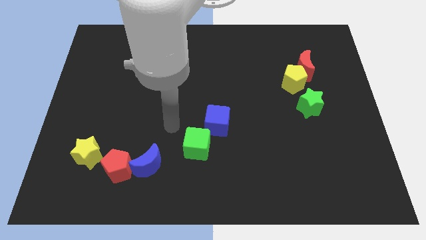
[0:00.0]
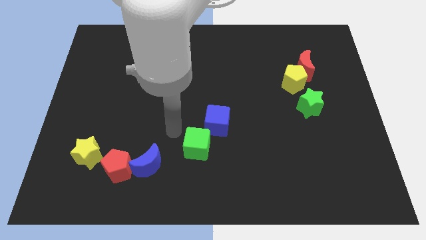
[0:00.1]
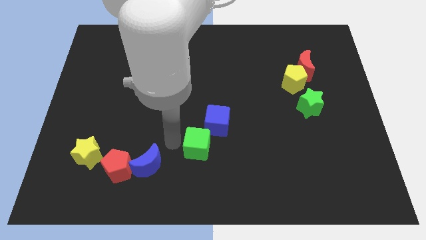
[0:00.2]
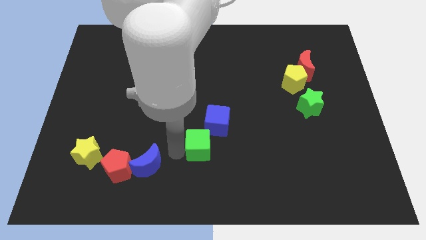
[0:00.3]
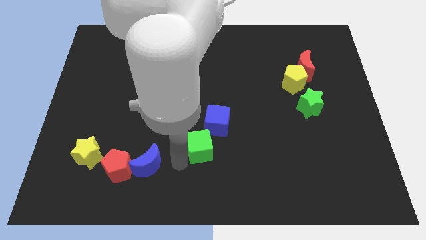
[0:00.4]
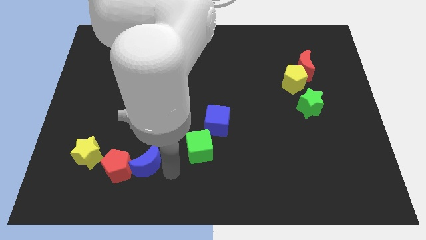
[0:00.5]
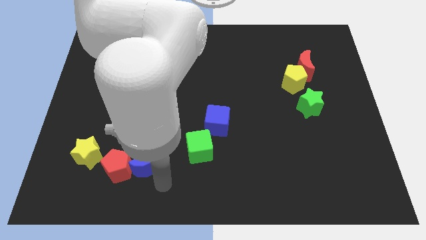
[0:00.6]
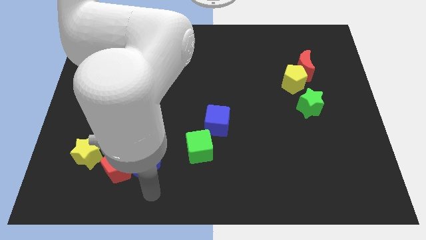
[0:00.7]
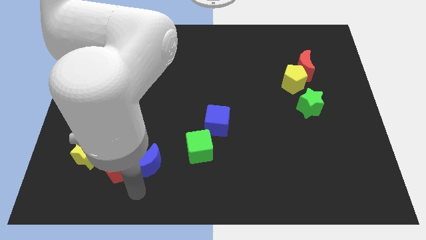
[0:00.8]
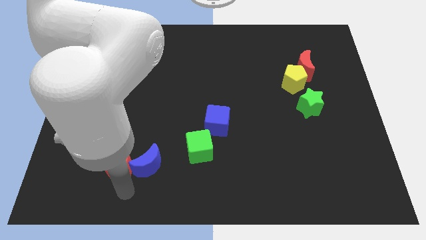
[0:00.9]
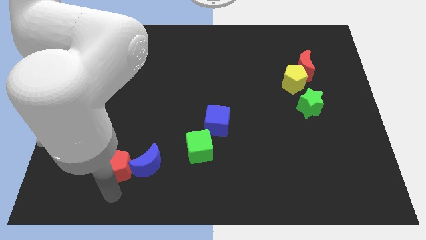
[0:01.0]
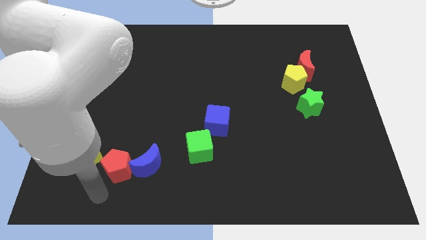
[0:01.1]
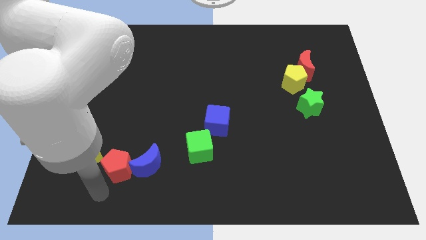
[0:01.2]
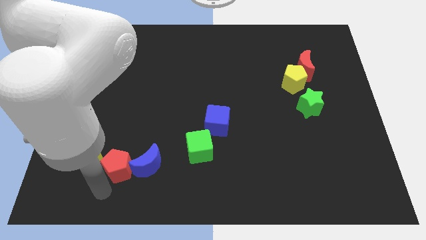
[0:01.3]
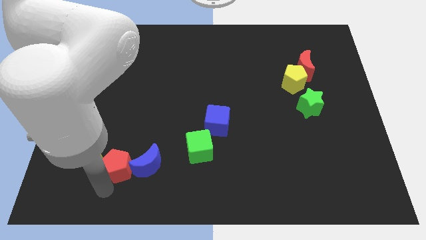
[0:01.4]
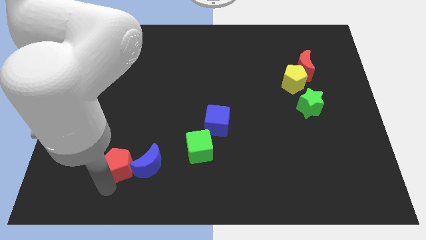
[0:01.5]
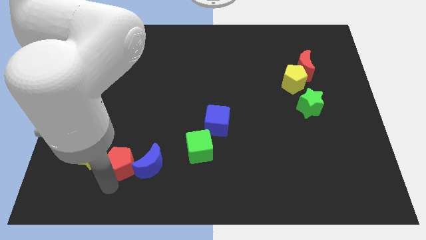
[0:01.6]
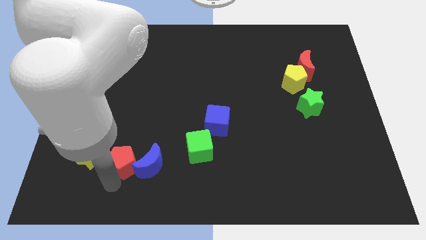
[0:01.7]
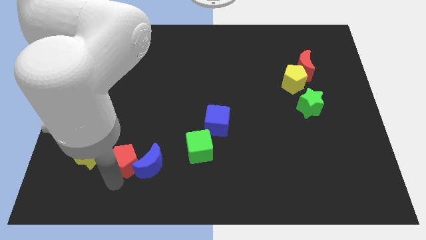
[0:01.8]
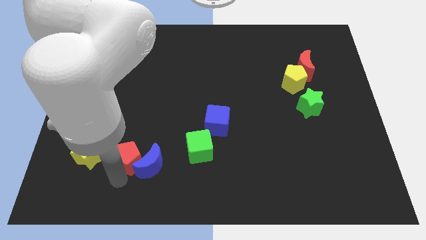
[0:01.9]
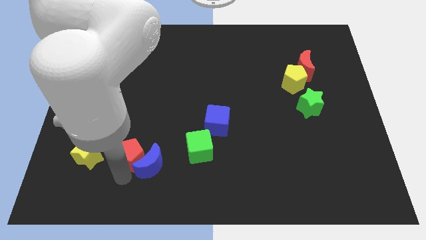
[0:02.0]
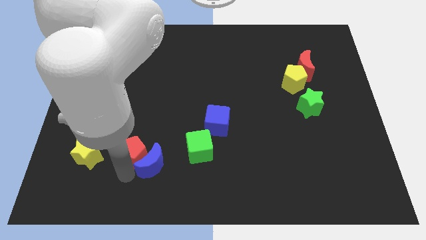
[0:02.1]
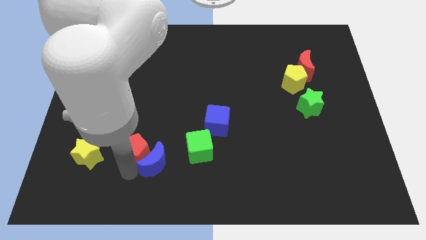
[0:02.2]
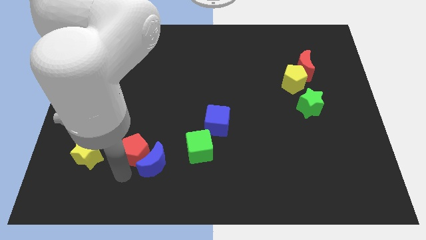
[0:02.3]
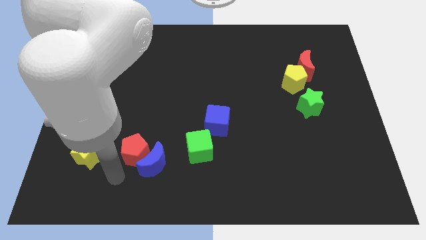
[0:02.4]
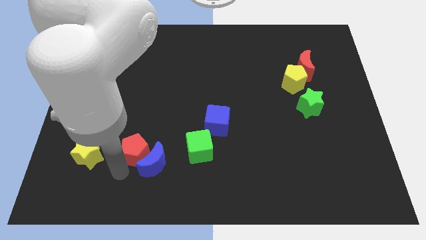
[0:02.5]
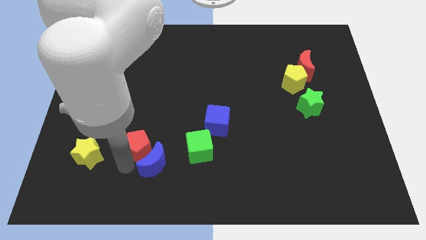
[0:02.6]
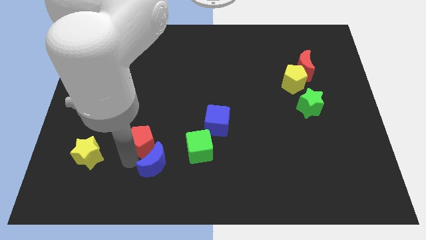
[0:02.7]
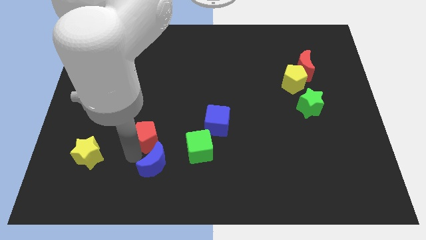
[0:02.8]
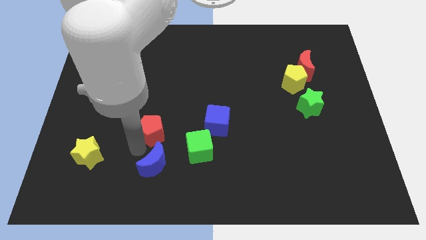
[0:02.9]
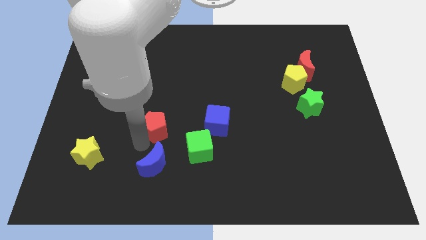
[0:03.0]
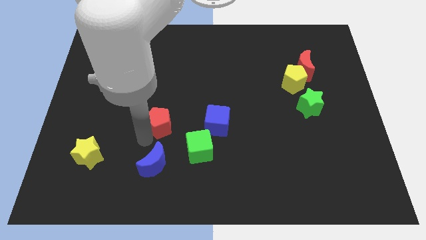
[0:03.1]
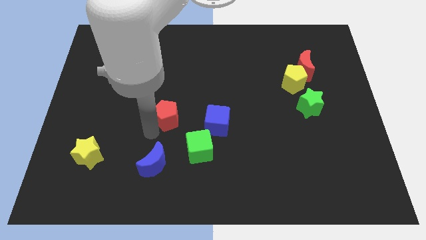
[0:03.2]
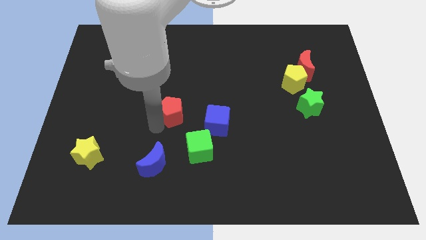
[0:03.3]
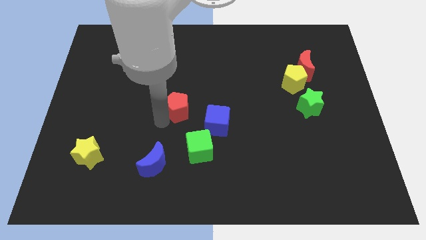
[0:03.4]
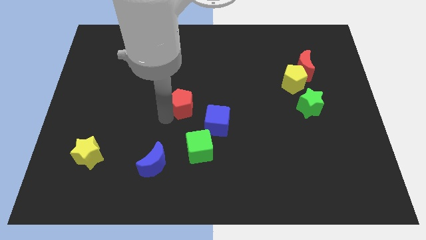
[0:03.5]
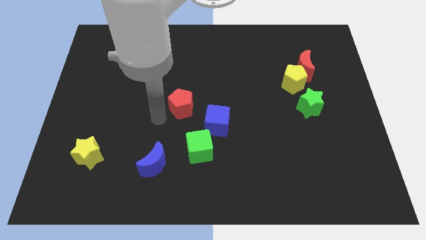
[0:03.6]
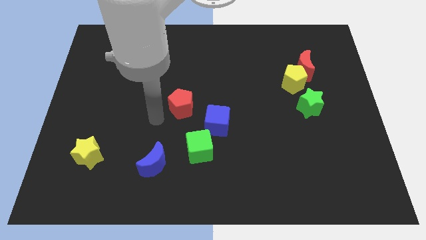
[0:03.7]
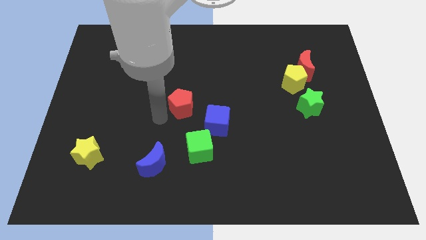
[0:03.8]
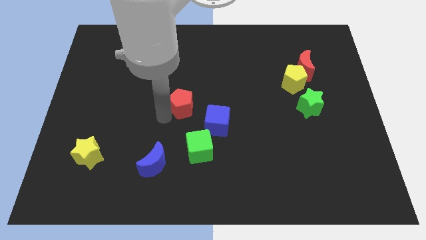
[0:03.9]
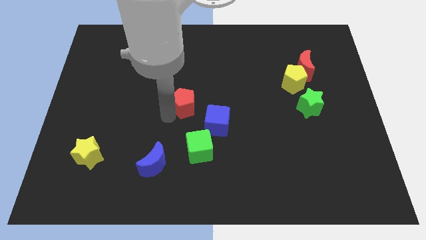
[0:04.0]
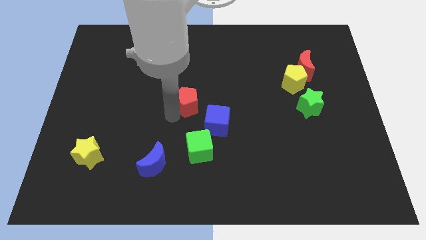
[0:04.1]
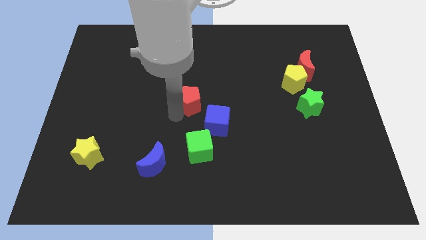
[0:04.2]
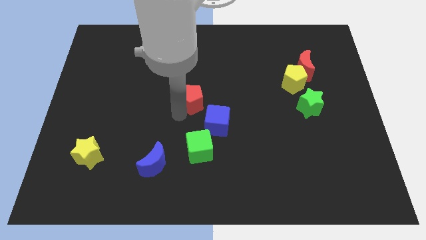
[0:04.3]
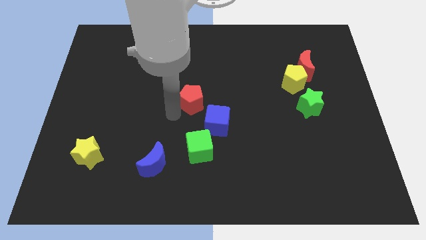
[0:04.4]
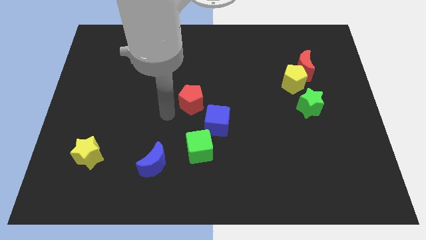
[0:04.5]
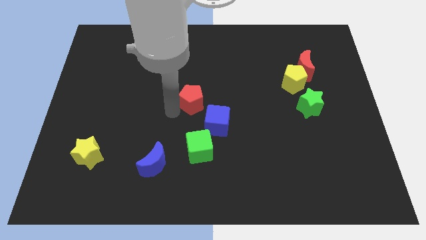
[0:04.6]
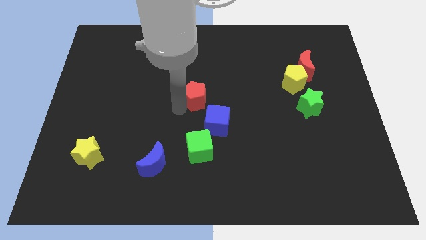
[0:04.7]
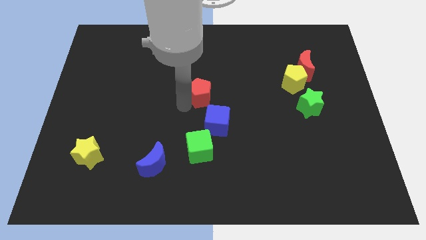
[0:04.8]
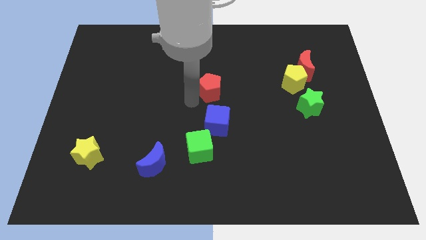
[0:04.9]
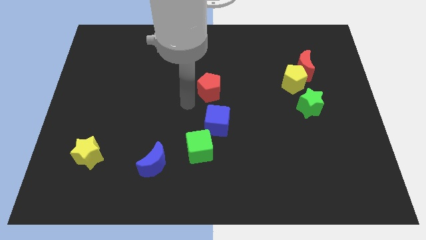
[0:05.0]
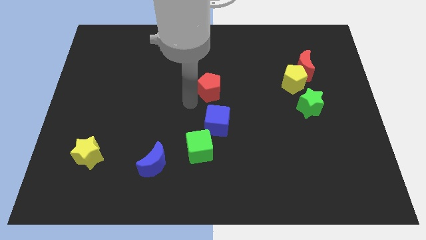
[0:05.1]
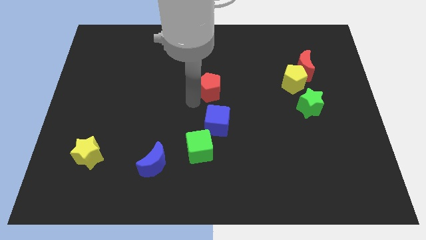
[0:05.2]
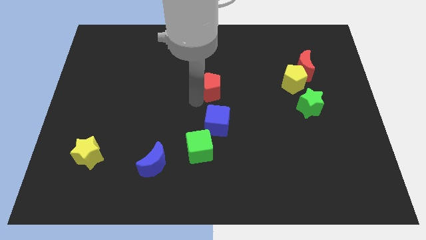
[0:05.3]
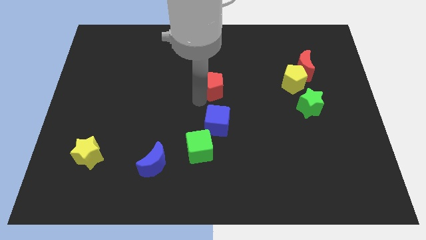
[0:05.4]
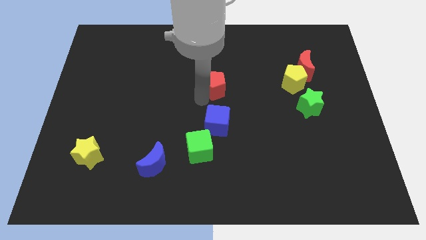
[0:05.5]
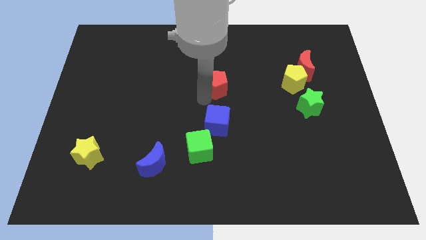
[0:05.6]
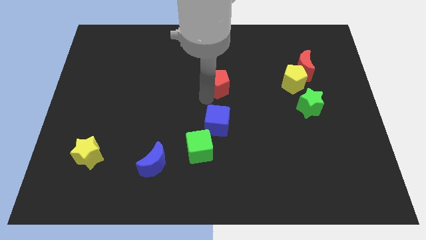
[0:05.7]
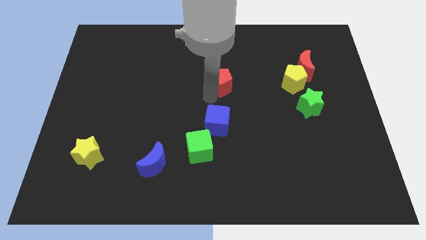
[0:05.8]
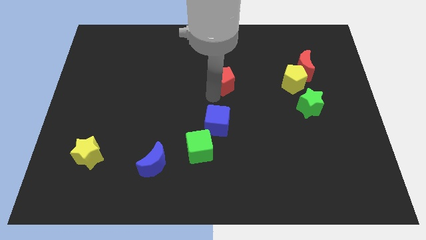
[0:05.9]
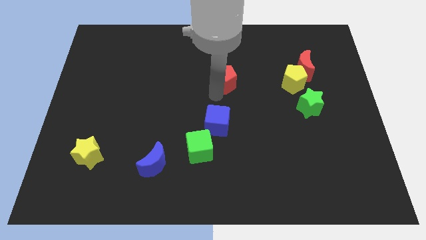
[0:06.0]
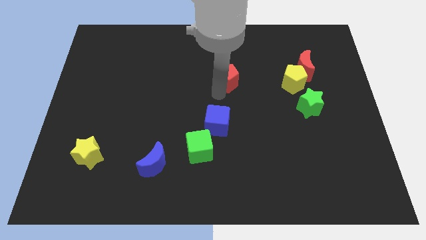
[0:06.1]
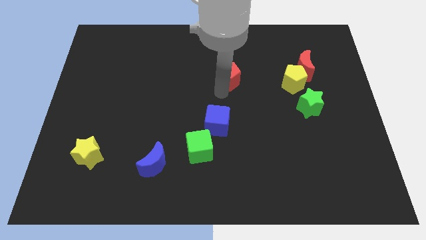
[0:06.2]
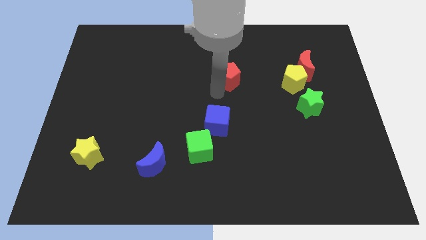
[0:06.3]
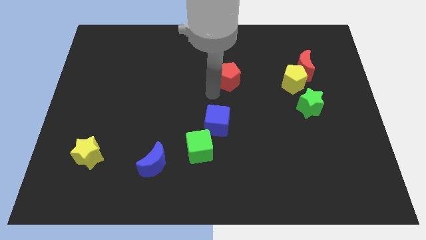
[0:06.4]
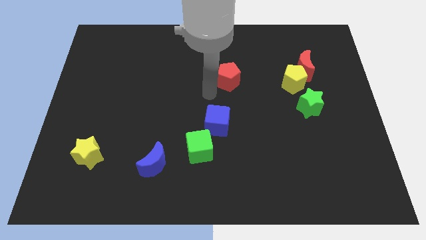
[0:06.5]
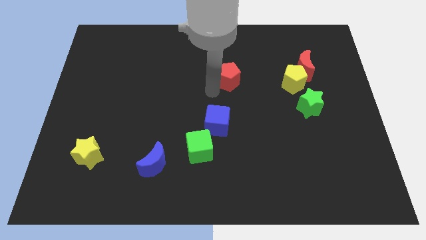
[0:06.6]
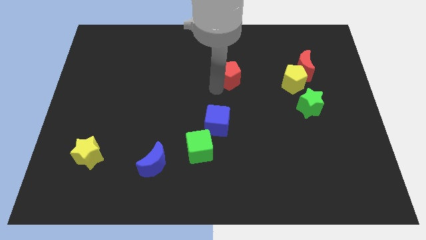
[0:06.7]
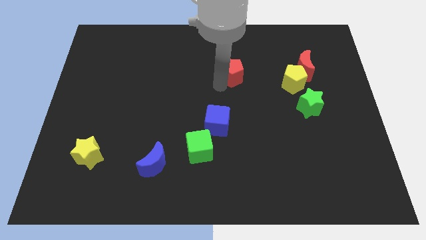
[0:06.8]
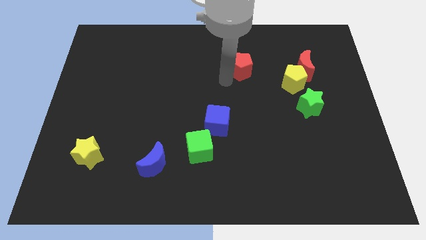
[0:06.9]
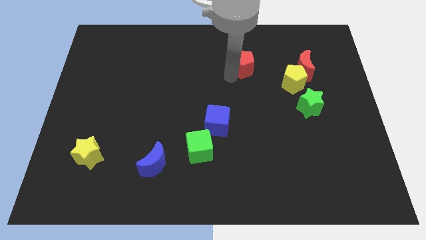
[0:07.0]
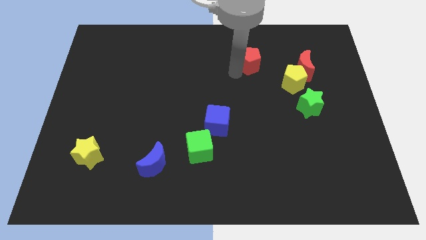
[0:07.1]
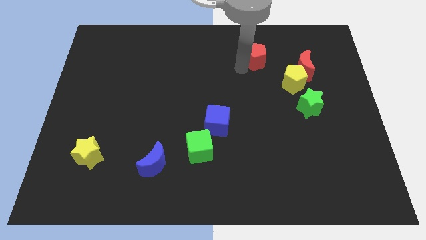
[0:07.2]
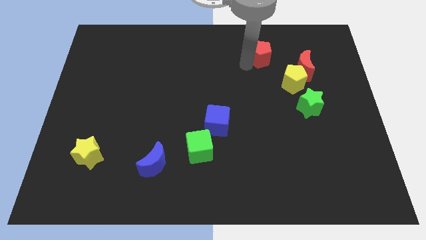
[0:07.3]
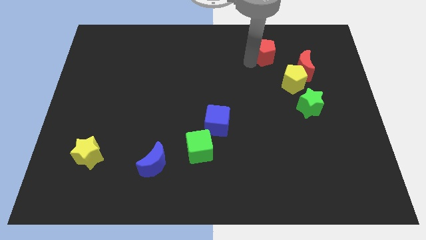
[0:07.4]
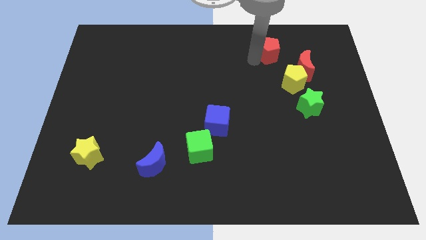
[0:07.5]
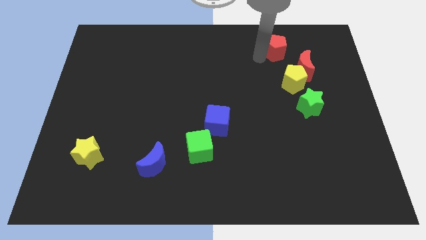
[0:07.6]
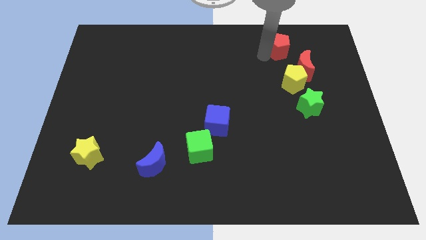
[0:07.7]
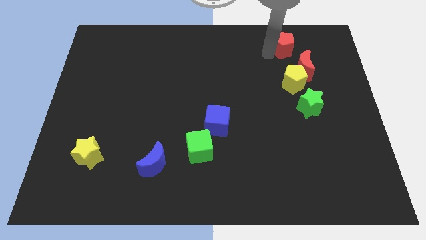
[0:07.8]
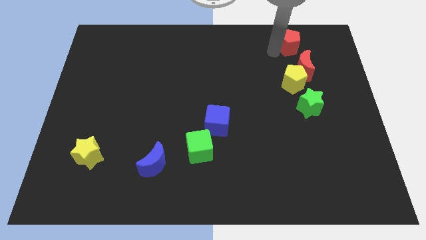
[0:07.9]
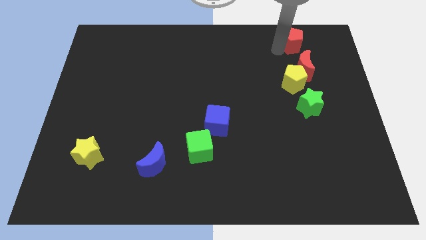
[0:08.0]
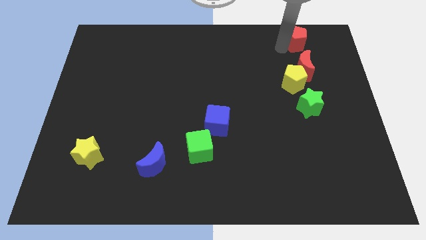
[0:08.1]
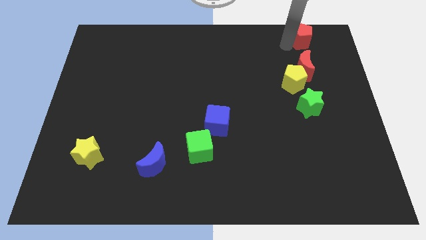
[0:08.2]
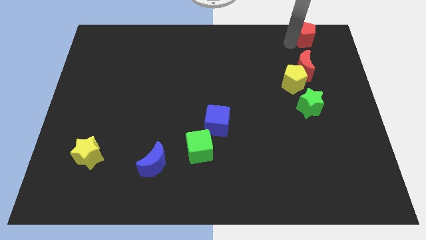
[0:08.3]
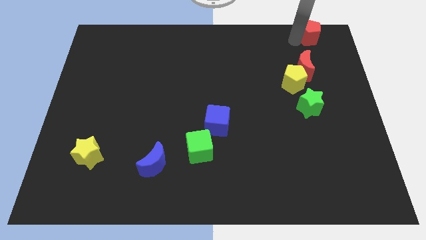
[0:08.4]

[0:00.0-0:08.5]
put the red pentagon to the top right
